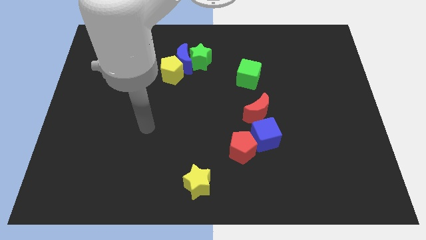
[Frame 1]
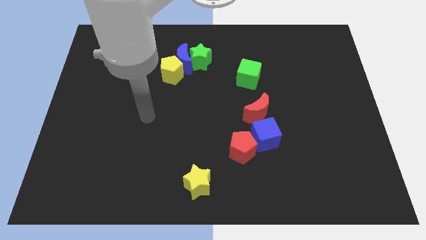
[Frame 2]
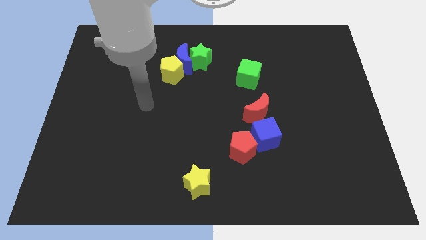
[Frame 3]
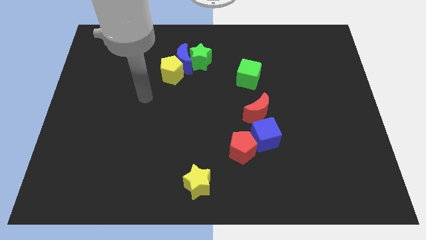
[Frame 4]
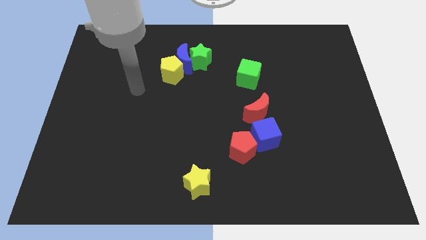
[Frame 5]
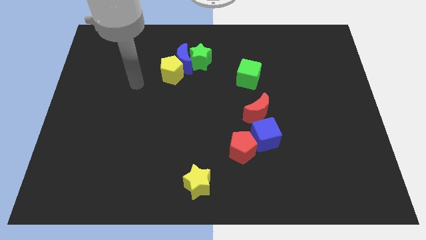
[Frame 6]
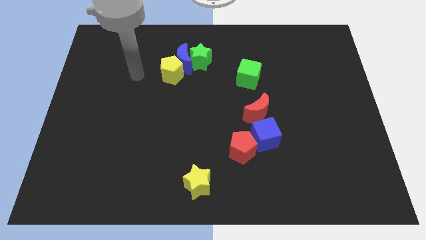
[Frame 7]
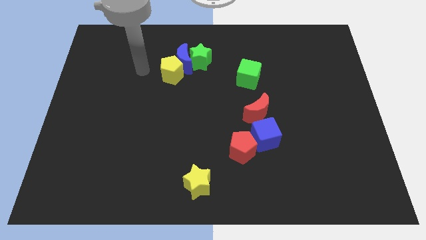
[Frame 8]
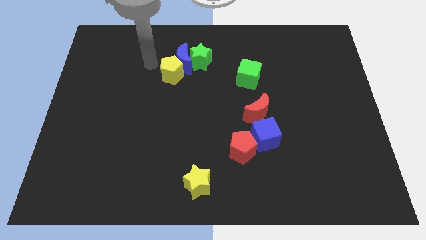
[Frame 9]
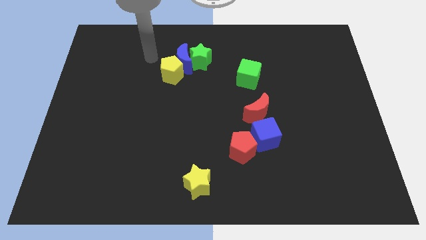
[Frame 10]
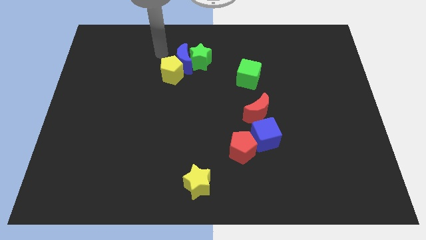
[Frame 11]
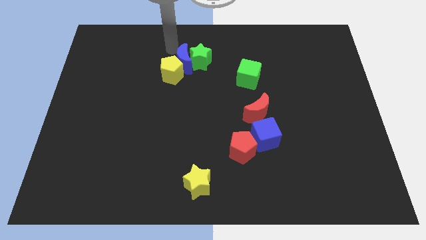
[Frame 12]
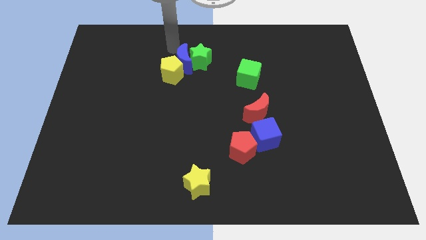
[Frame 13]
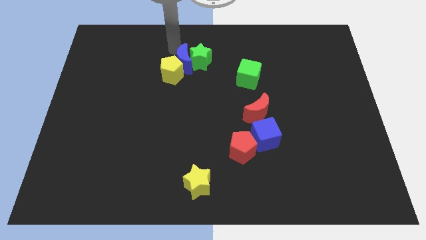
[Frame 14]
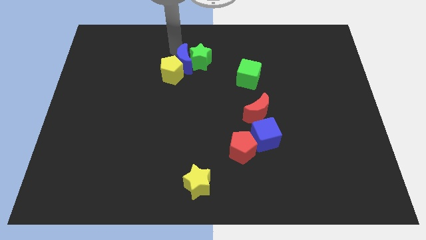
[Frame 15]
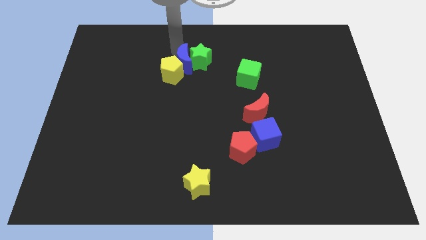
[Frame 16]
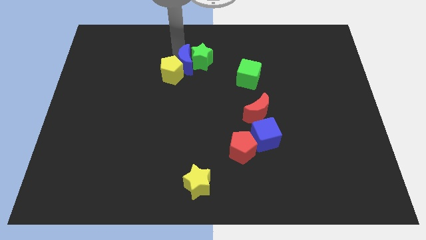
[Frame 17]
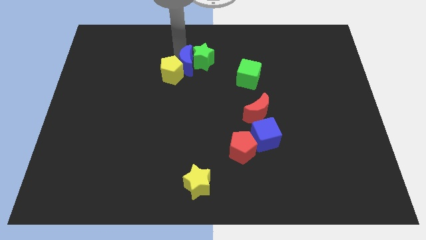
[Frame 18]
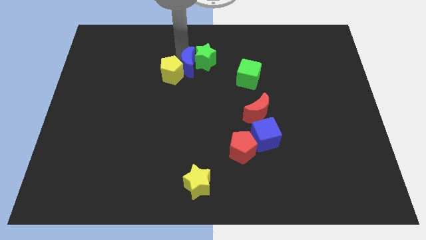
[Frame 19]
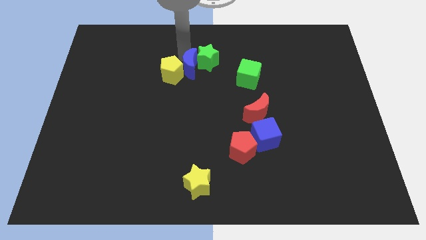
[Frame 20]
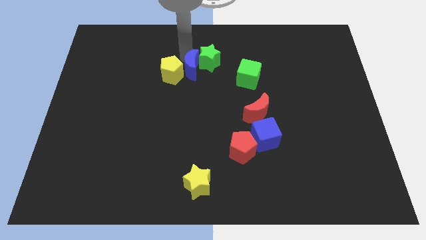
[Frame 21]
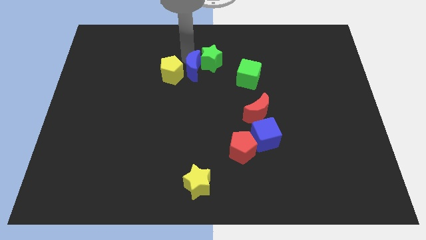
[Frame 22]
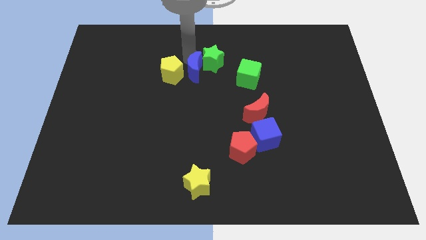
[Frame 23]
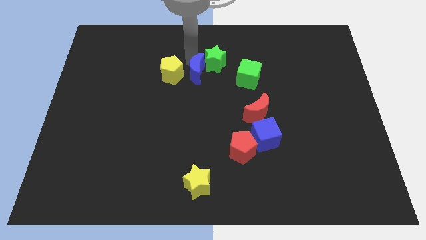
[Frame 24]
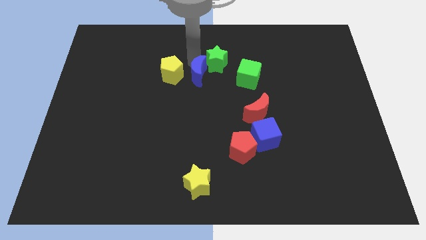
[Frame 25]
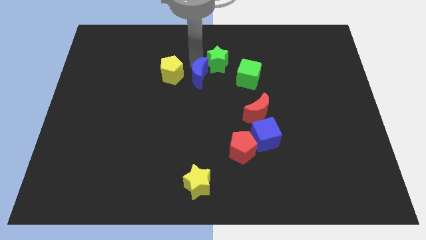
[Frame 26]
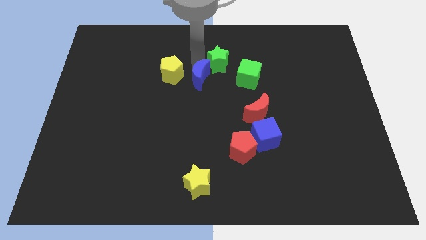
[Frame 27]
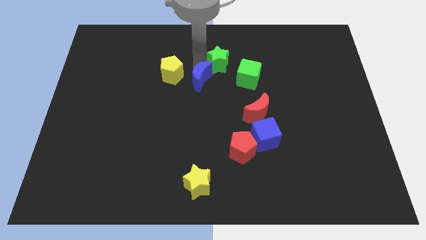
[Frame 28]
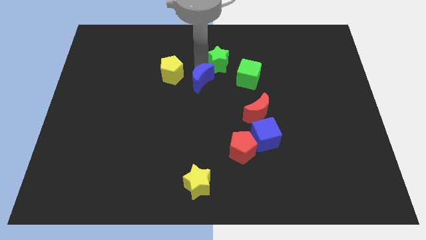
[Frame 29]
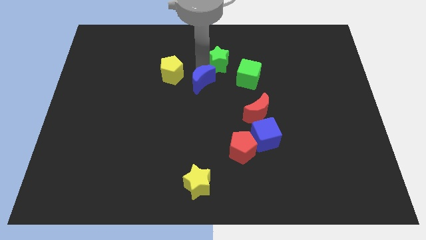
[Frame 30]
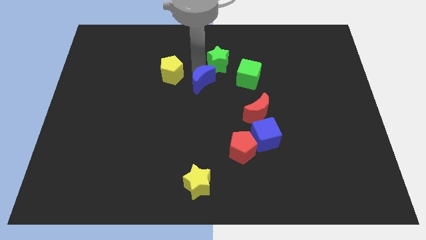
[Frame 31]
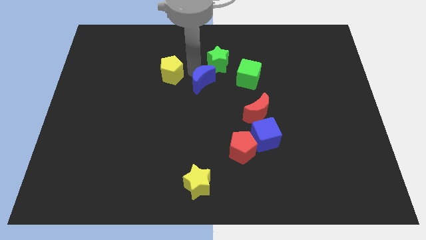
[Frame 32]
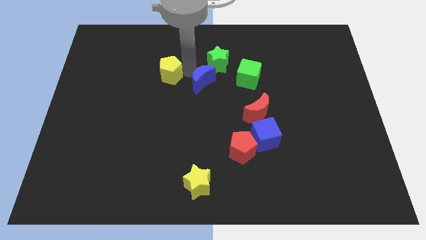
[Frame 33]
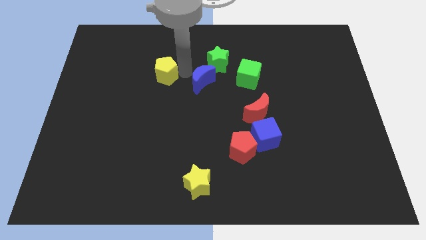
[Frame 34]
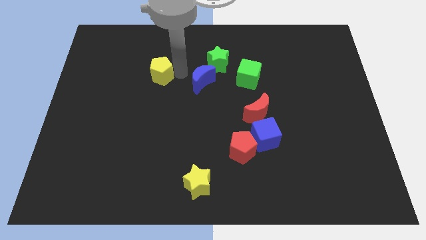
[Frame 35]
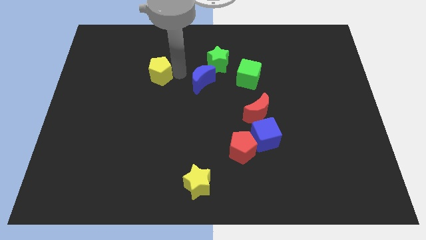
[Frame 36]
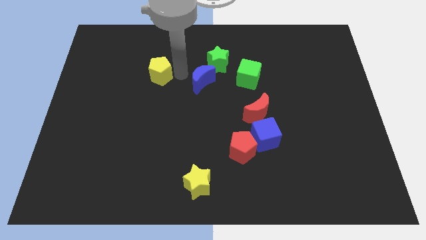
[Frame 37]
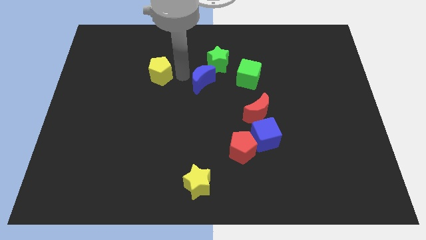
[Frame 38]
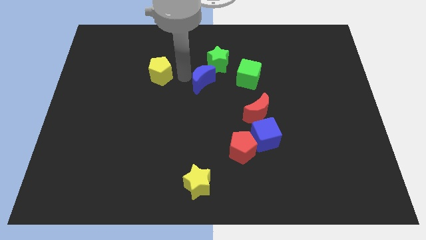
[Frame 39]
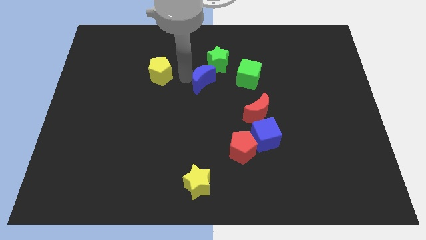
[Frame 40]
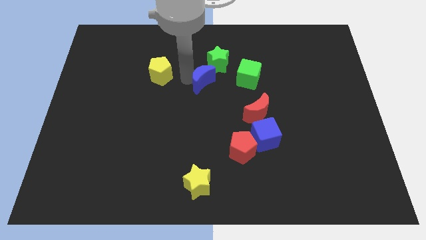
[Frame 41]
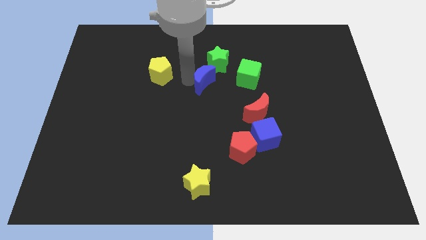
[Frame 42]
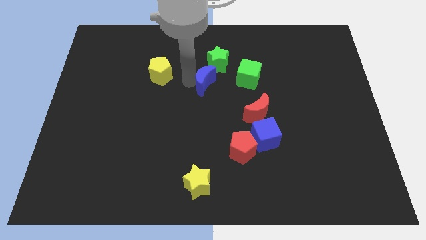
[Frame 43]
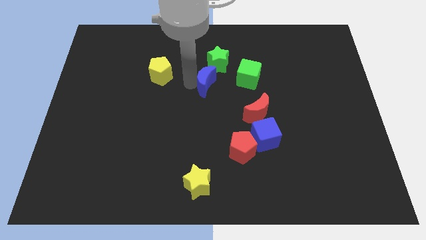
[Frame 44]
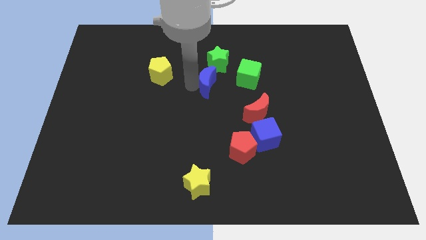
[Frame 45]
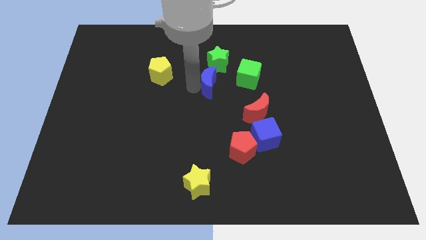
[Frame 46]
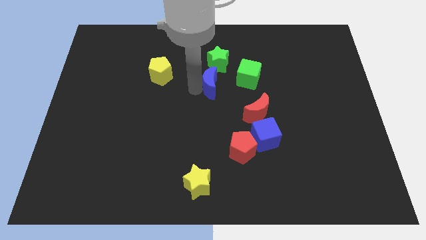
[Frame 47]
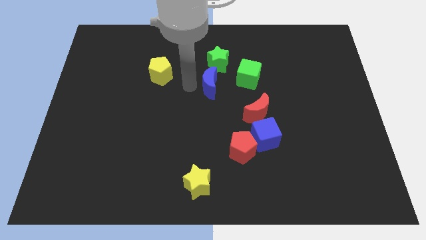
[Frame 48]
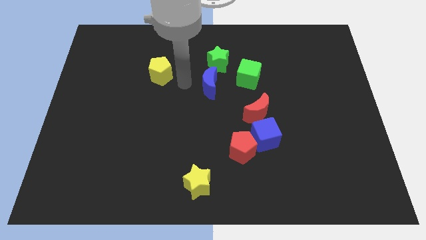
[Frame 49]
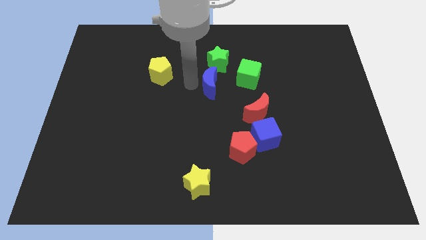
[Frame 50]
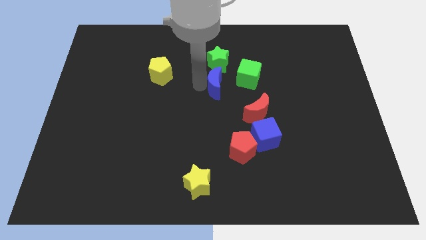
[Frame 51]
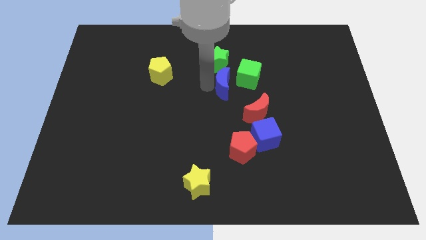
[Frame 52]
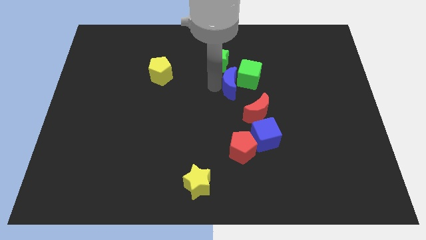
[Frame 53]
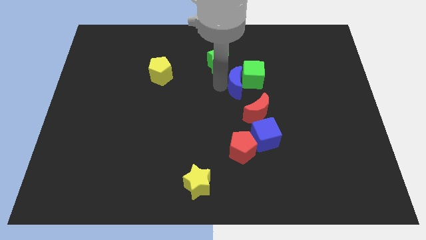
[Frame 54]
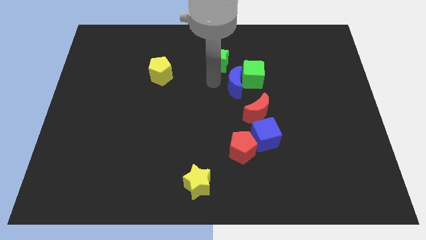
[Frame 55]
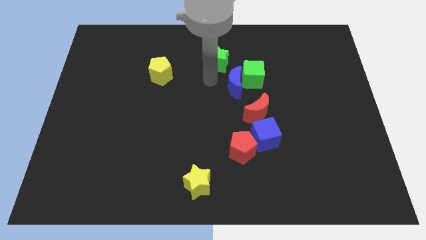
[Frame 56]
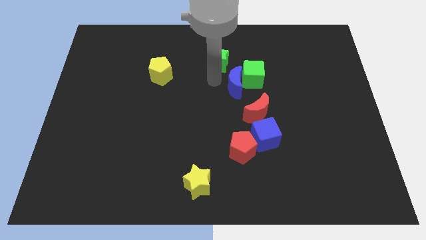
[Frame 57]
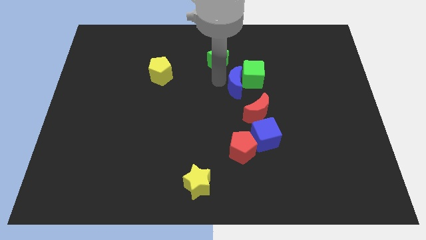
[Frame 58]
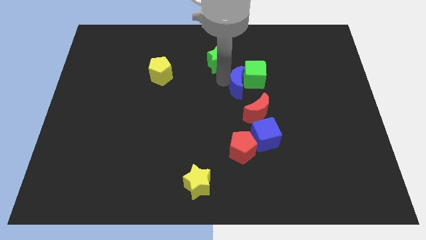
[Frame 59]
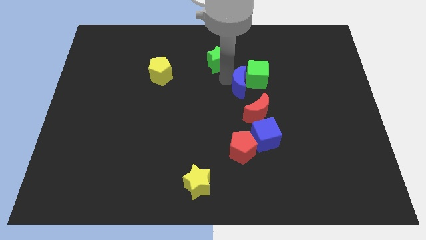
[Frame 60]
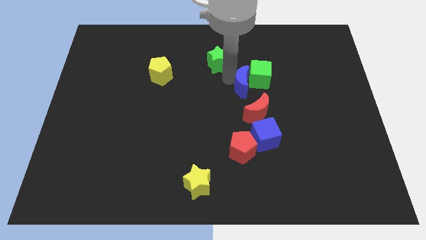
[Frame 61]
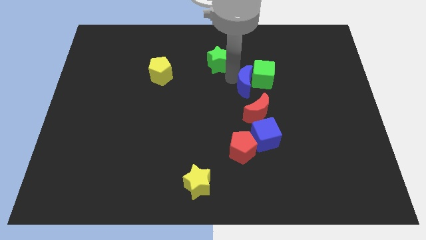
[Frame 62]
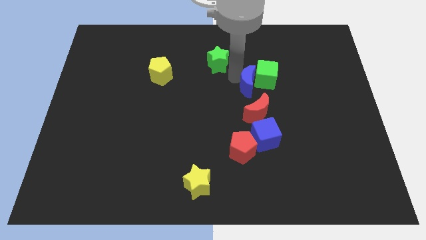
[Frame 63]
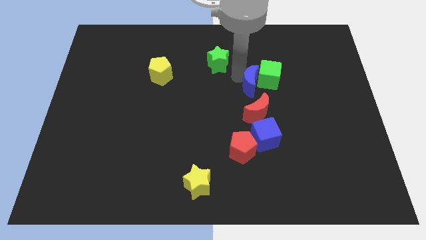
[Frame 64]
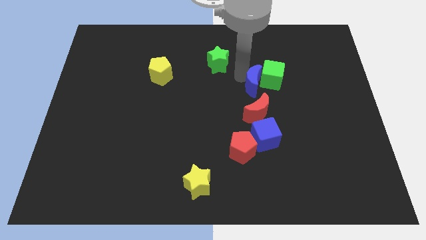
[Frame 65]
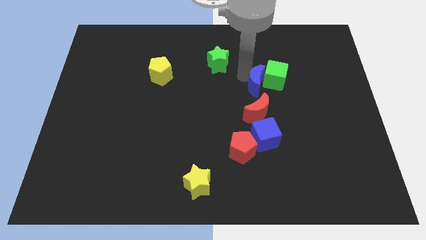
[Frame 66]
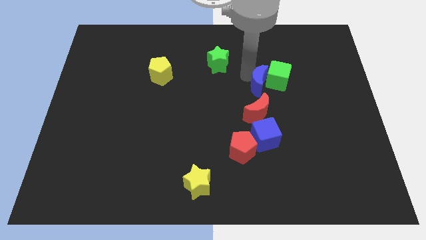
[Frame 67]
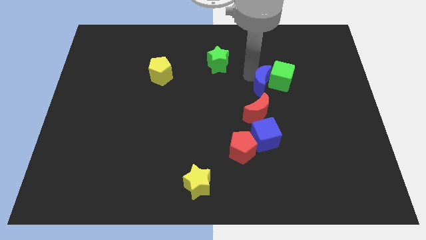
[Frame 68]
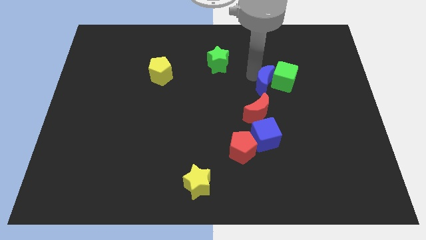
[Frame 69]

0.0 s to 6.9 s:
move the blue moon to the top right side of the red moon
